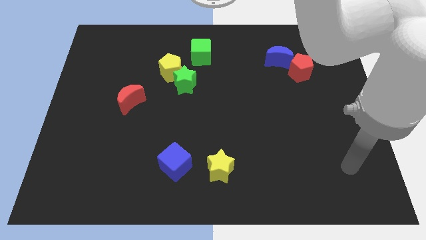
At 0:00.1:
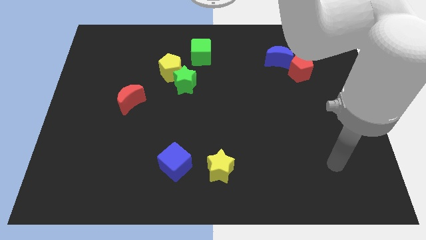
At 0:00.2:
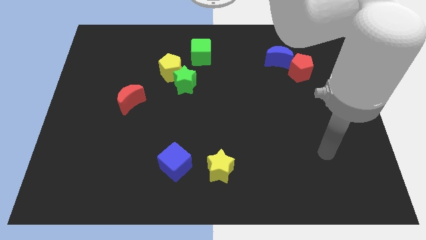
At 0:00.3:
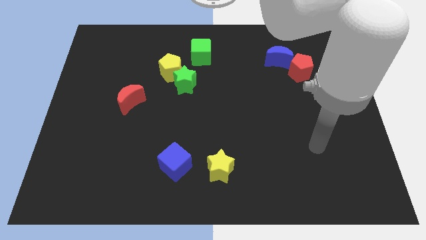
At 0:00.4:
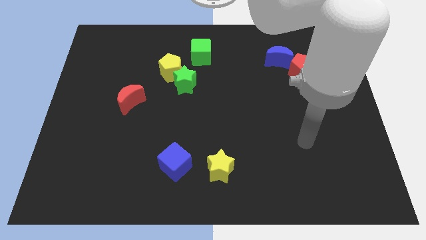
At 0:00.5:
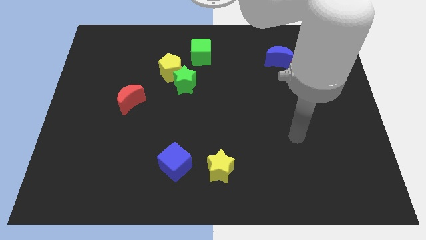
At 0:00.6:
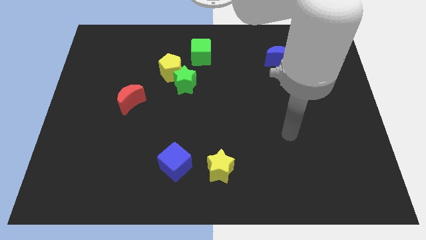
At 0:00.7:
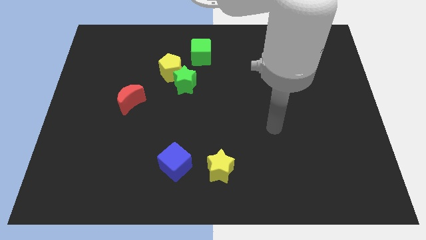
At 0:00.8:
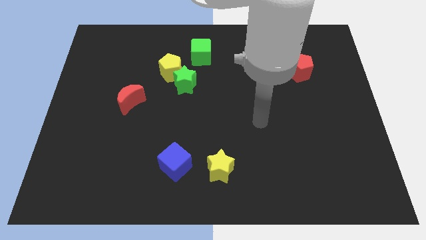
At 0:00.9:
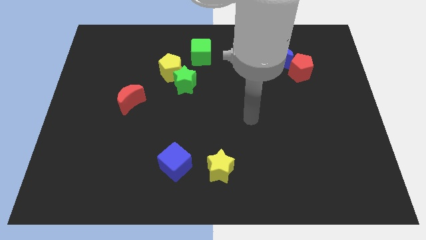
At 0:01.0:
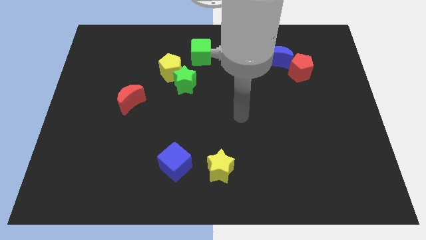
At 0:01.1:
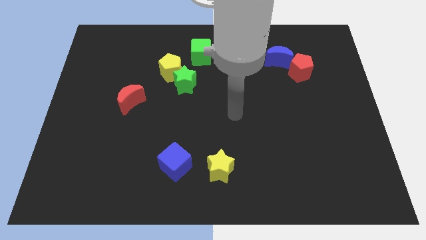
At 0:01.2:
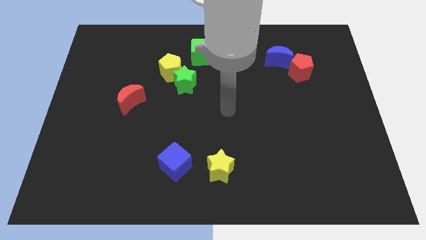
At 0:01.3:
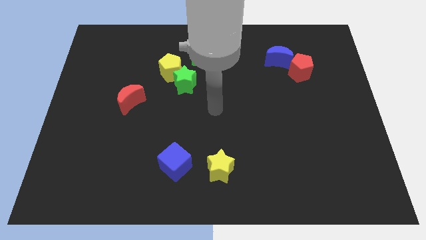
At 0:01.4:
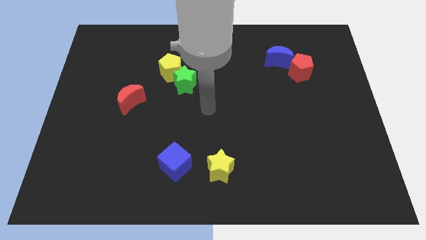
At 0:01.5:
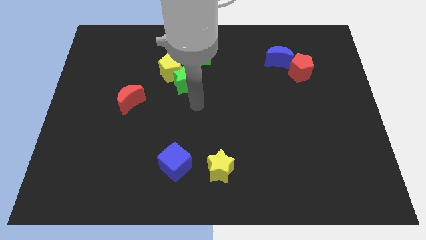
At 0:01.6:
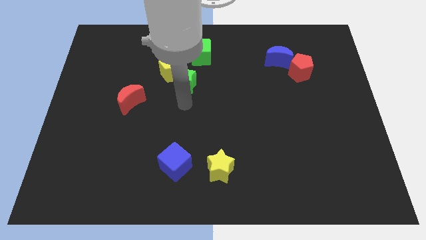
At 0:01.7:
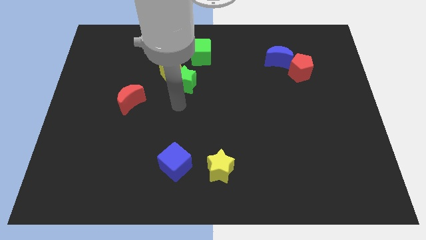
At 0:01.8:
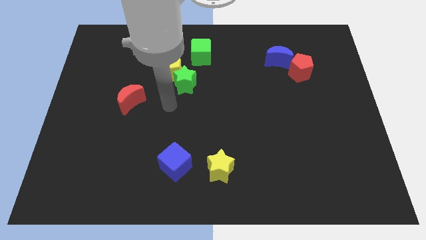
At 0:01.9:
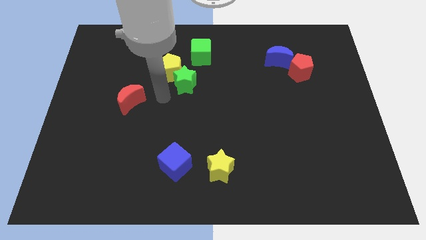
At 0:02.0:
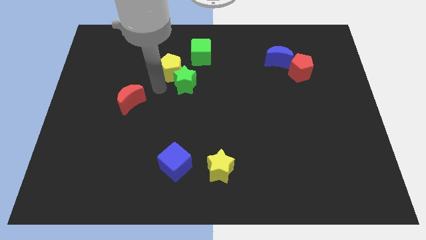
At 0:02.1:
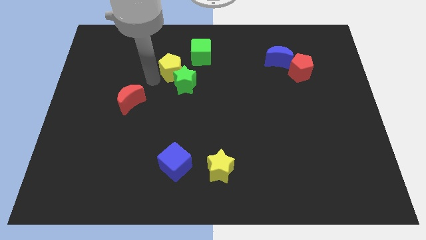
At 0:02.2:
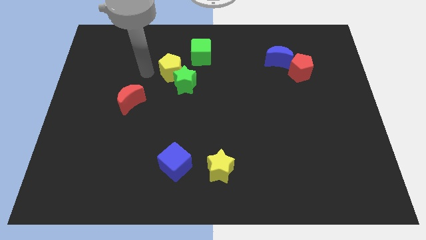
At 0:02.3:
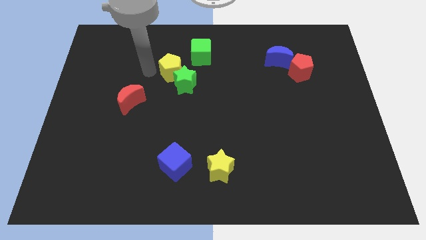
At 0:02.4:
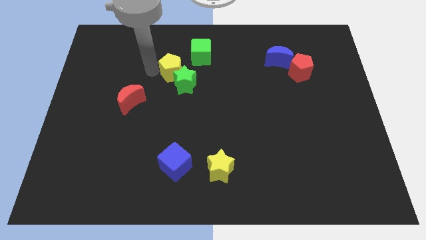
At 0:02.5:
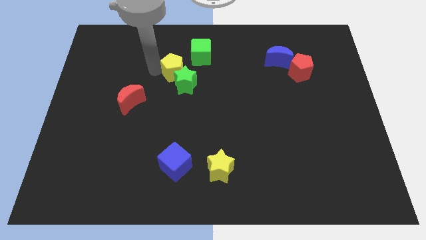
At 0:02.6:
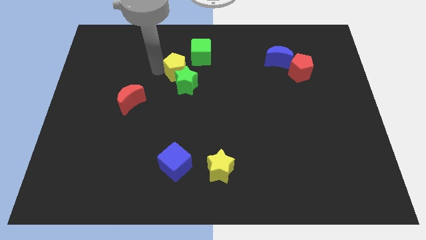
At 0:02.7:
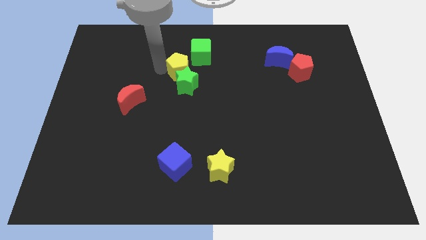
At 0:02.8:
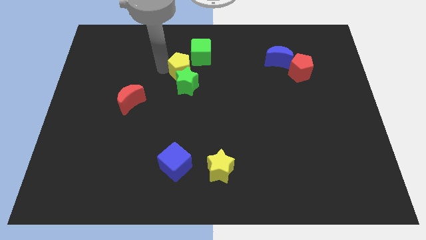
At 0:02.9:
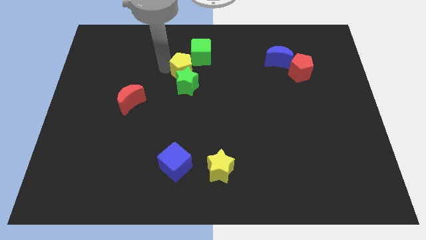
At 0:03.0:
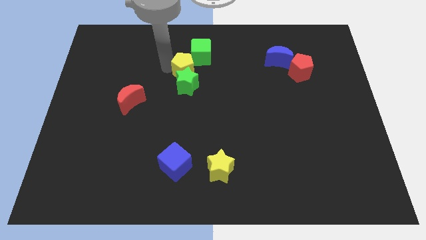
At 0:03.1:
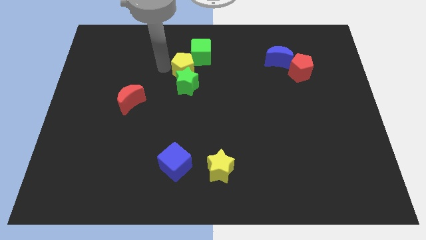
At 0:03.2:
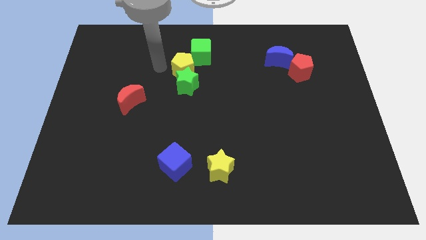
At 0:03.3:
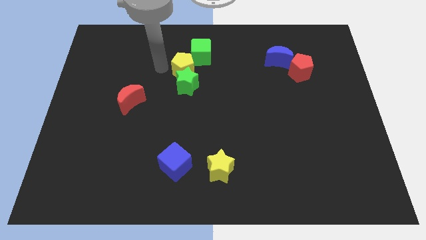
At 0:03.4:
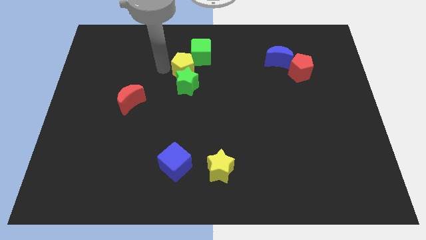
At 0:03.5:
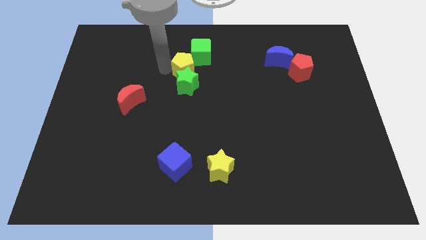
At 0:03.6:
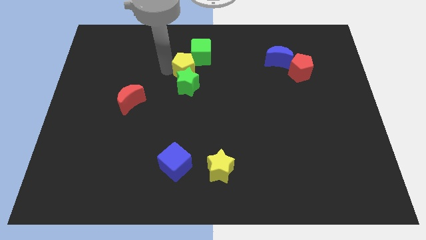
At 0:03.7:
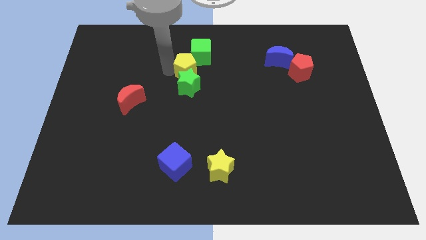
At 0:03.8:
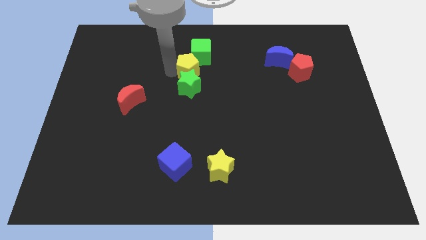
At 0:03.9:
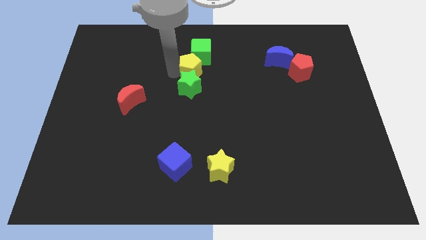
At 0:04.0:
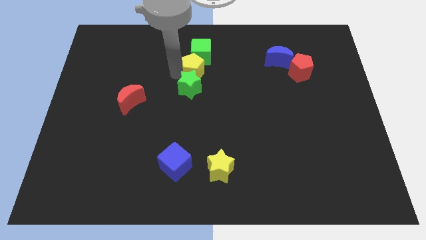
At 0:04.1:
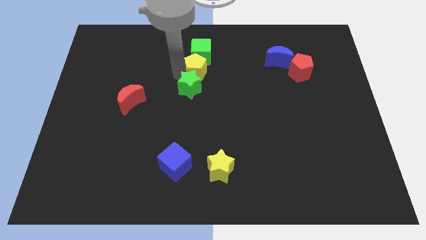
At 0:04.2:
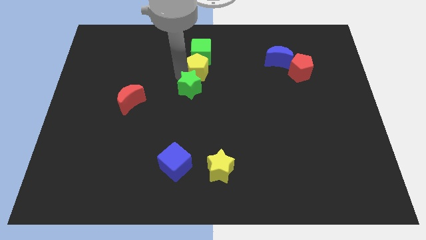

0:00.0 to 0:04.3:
slide the yellow pentagon to the right a bit

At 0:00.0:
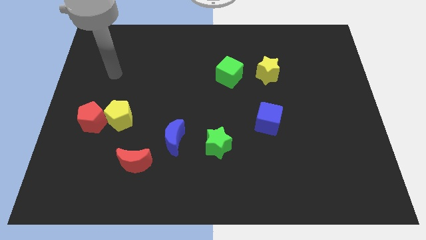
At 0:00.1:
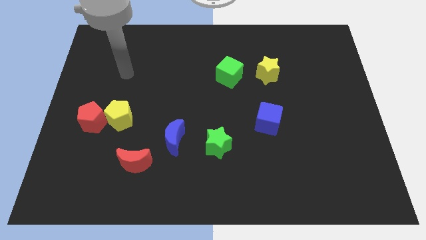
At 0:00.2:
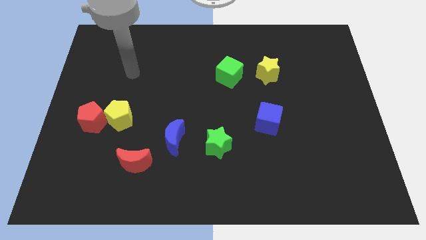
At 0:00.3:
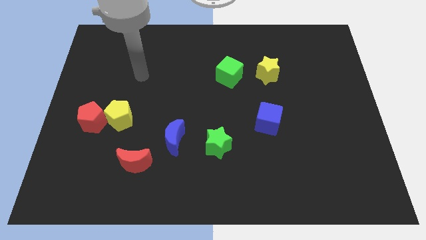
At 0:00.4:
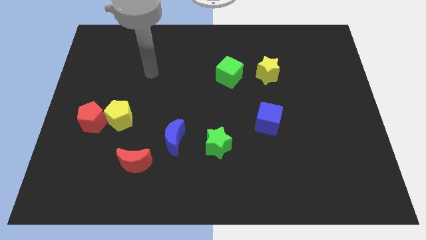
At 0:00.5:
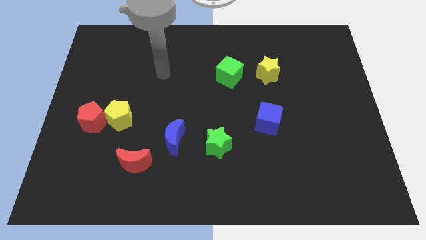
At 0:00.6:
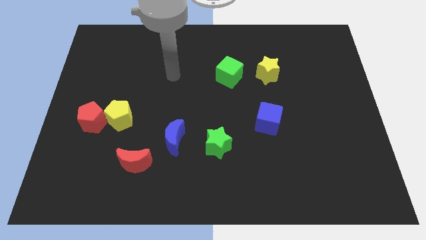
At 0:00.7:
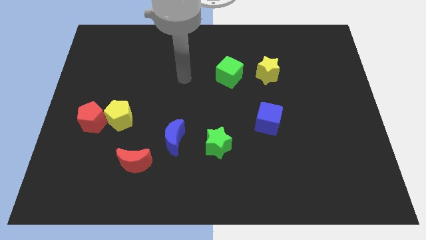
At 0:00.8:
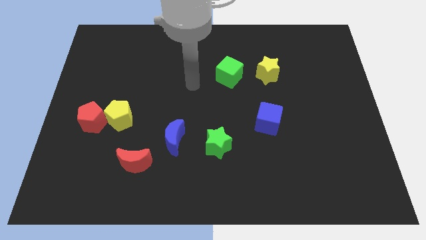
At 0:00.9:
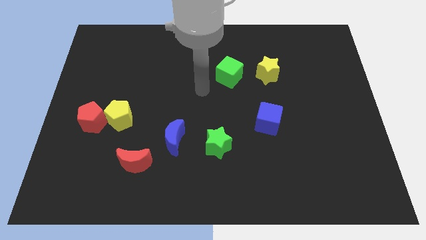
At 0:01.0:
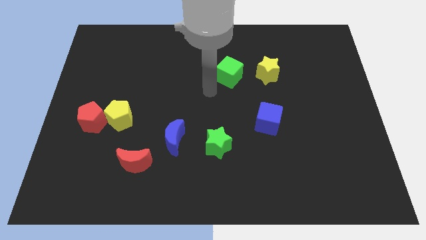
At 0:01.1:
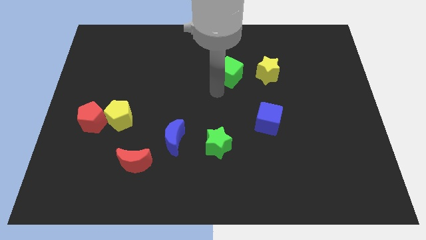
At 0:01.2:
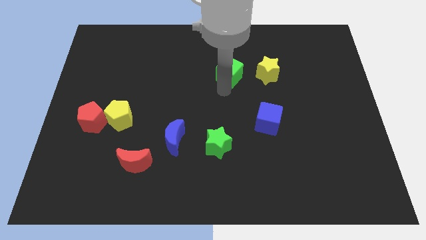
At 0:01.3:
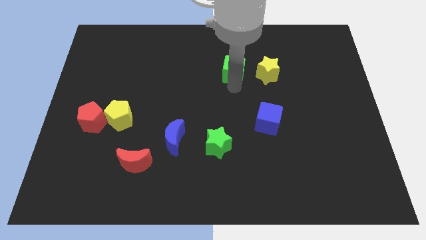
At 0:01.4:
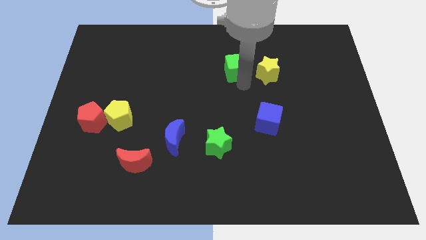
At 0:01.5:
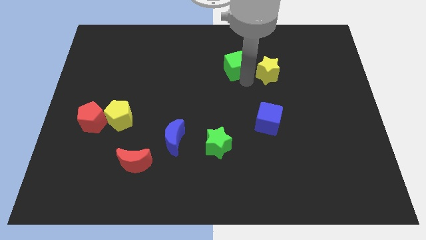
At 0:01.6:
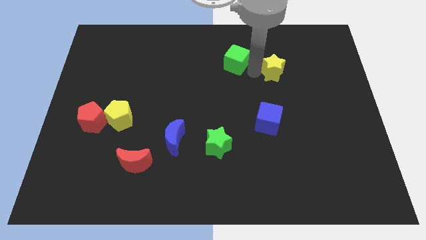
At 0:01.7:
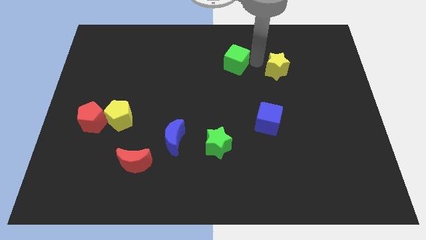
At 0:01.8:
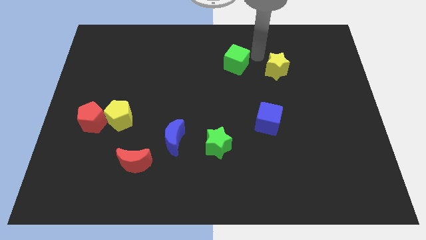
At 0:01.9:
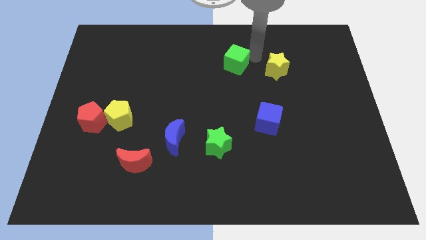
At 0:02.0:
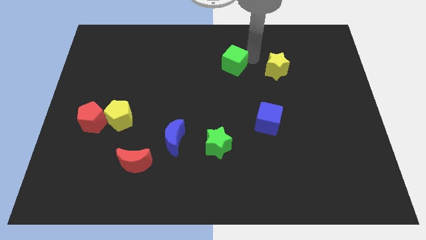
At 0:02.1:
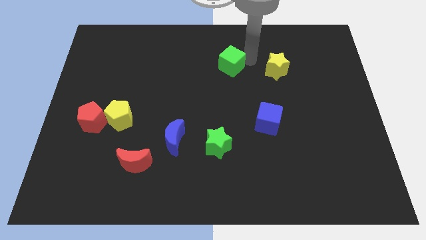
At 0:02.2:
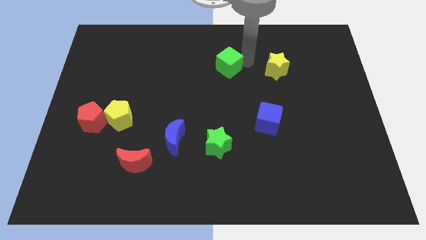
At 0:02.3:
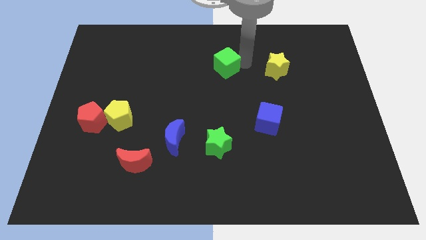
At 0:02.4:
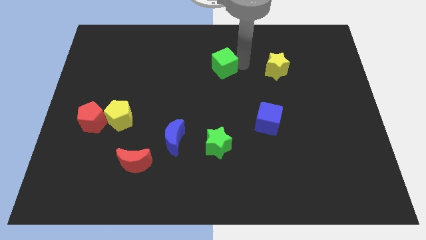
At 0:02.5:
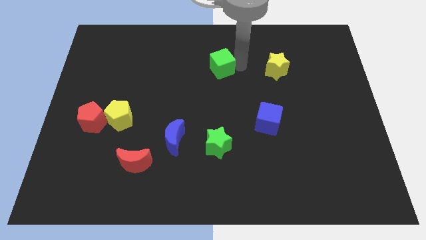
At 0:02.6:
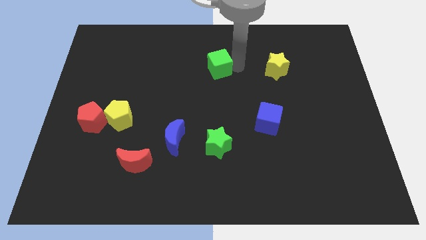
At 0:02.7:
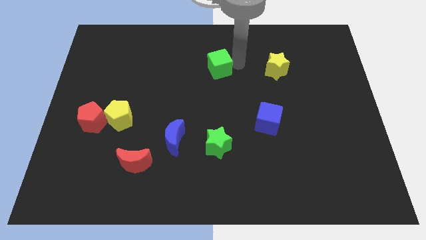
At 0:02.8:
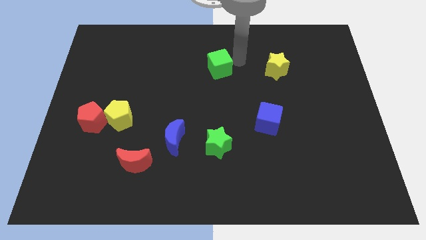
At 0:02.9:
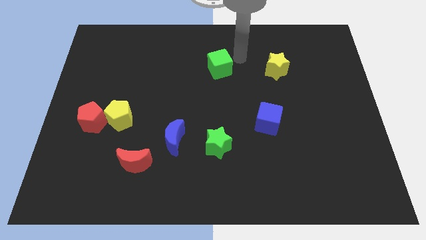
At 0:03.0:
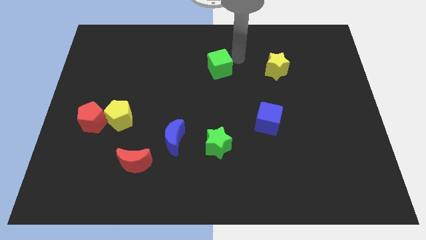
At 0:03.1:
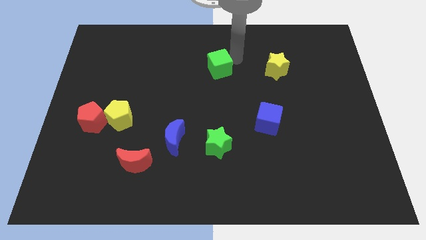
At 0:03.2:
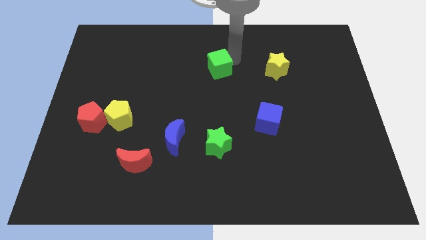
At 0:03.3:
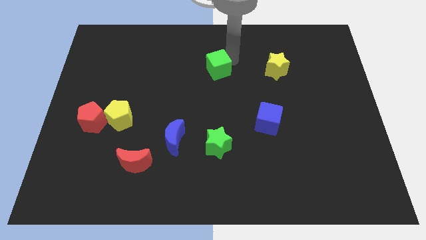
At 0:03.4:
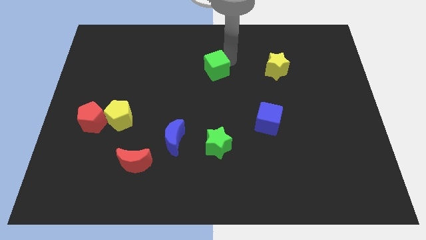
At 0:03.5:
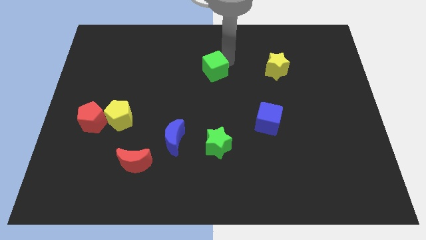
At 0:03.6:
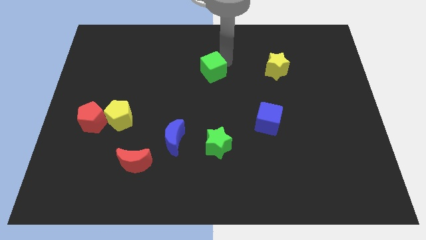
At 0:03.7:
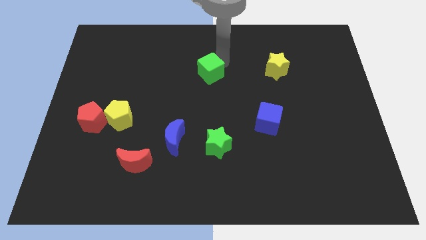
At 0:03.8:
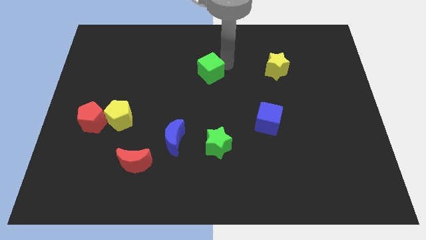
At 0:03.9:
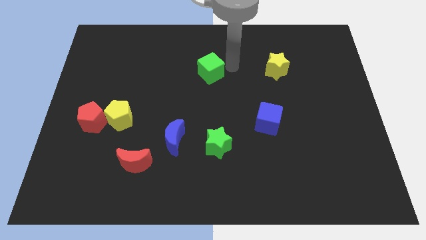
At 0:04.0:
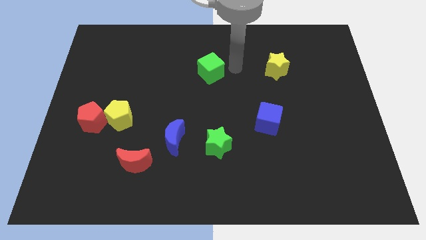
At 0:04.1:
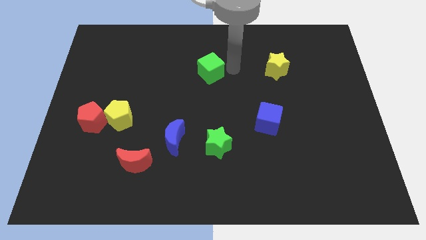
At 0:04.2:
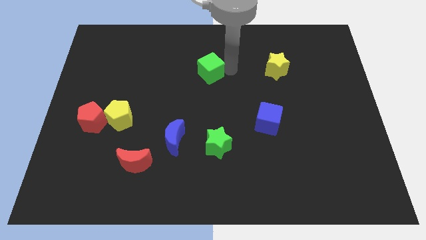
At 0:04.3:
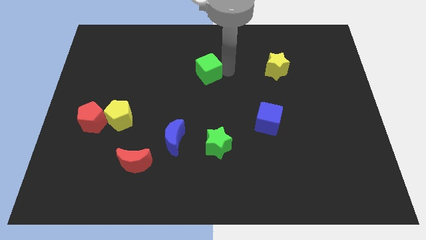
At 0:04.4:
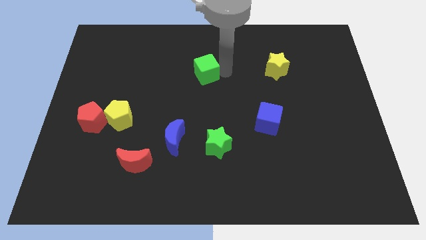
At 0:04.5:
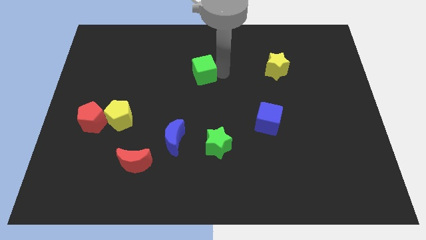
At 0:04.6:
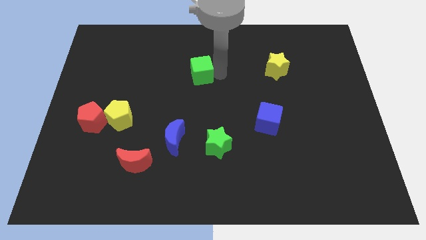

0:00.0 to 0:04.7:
push the green cube left a little bit
